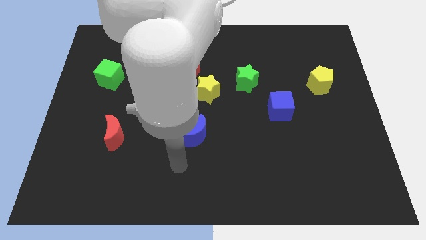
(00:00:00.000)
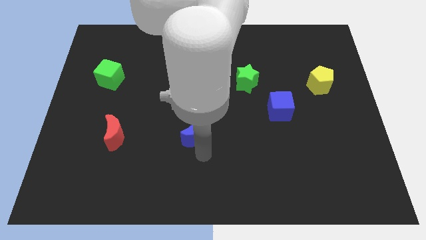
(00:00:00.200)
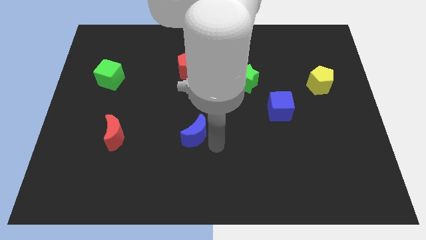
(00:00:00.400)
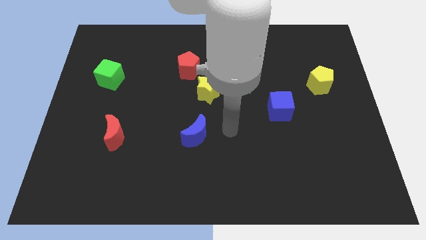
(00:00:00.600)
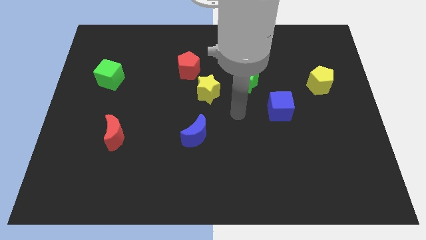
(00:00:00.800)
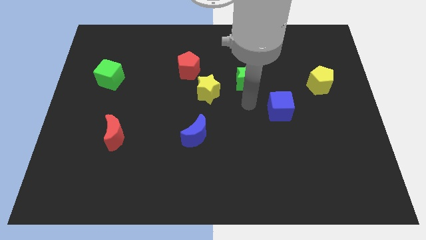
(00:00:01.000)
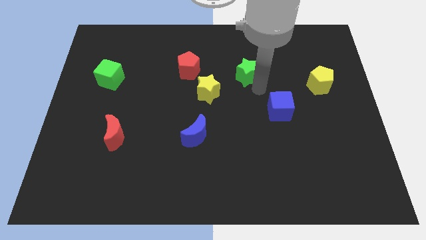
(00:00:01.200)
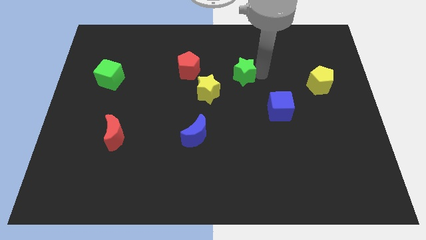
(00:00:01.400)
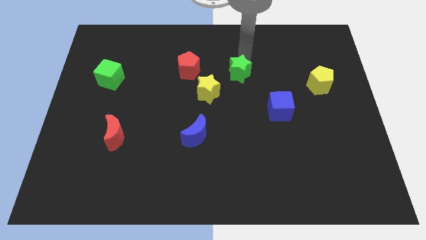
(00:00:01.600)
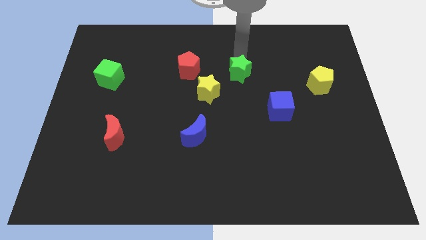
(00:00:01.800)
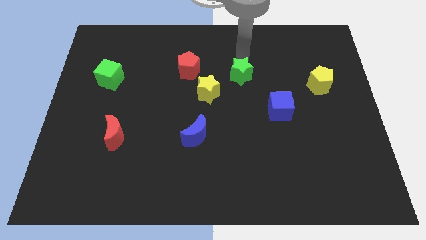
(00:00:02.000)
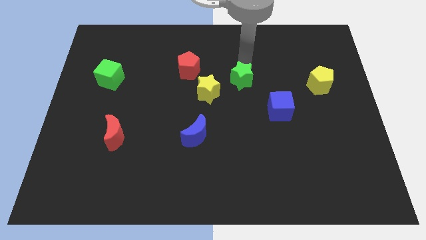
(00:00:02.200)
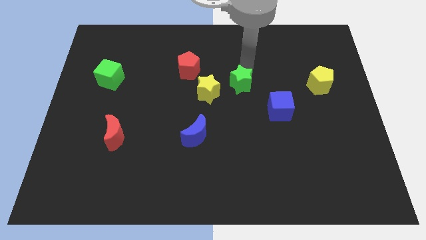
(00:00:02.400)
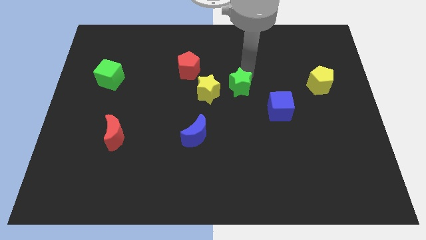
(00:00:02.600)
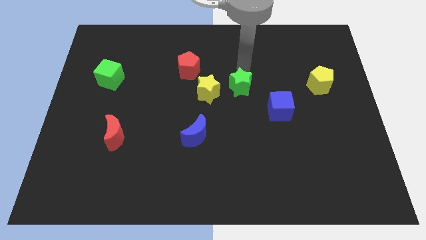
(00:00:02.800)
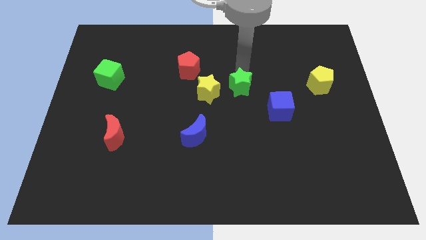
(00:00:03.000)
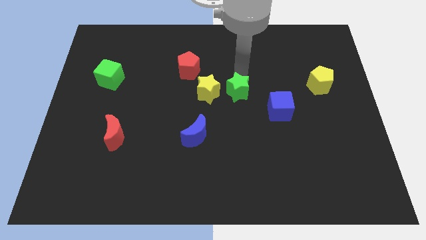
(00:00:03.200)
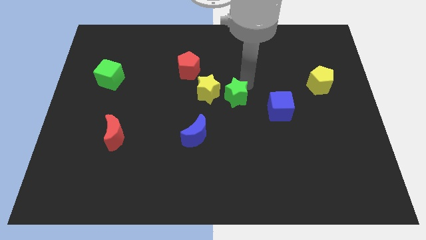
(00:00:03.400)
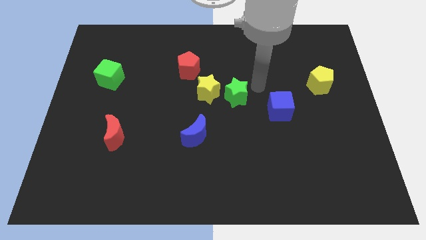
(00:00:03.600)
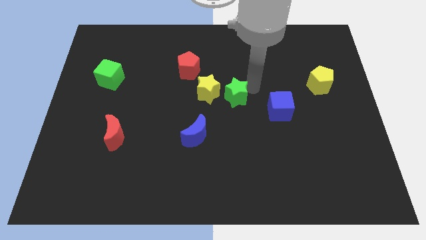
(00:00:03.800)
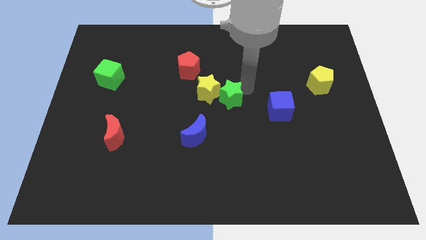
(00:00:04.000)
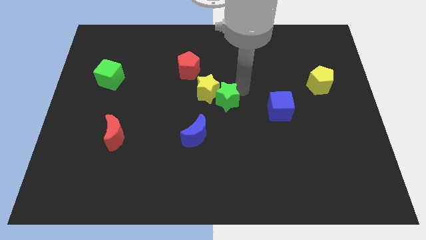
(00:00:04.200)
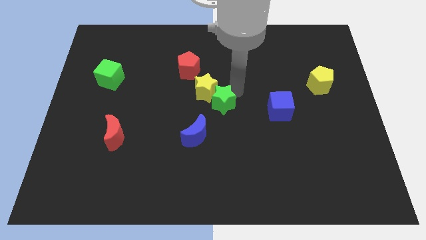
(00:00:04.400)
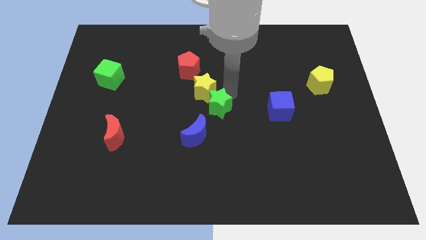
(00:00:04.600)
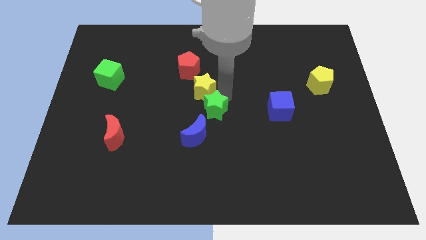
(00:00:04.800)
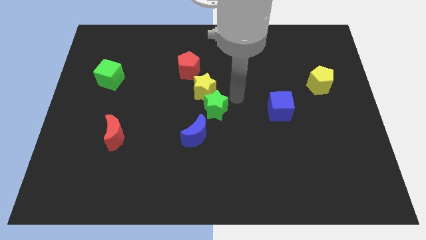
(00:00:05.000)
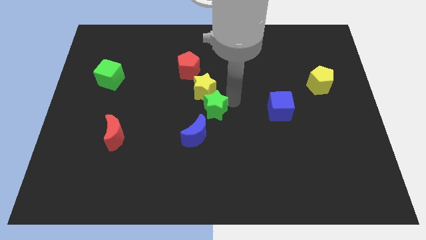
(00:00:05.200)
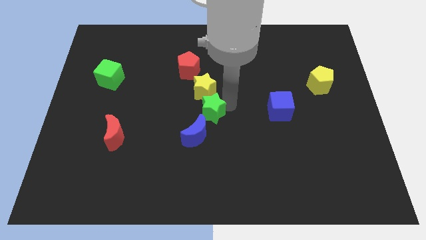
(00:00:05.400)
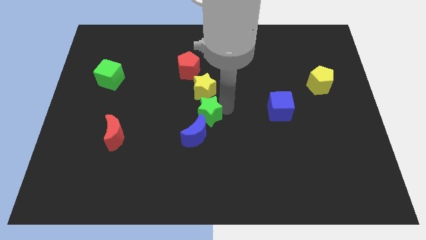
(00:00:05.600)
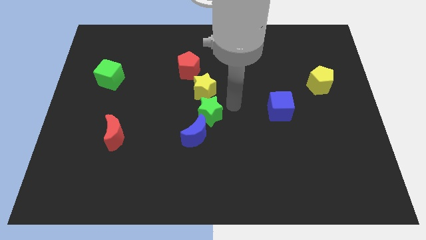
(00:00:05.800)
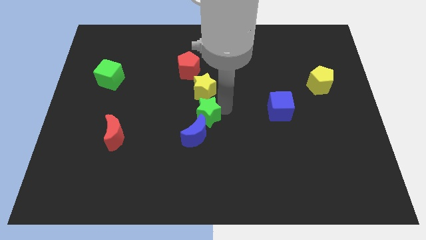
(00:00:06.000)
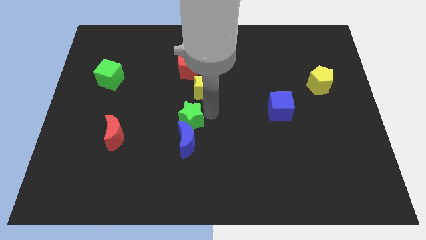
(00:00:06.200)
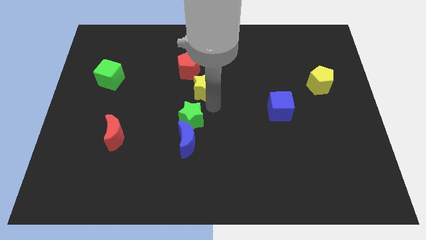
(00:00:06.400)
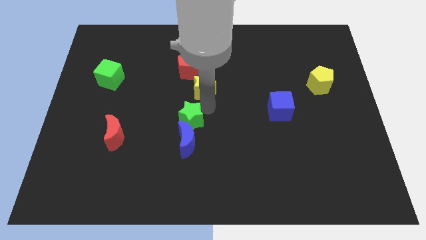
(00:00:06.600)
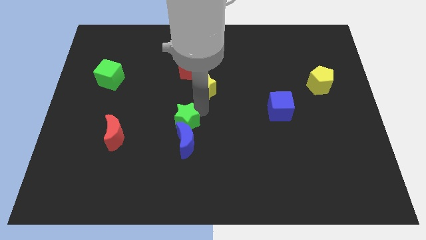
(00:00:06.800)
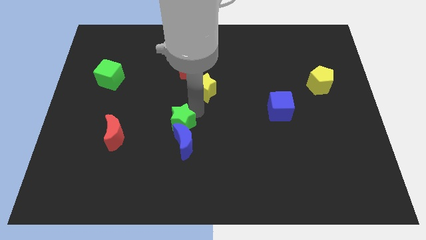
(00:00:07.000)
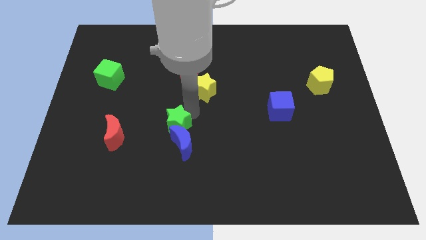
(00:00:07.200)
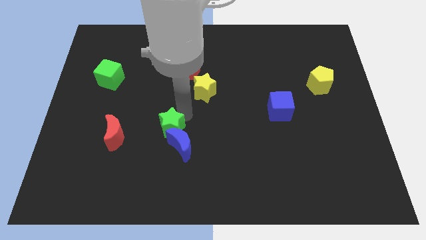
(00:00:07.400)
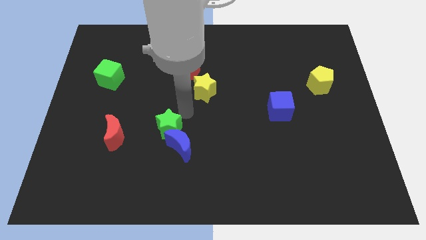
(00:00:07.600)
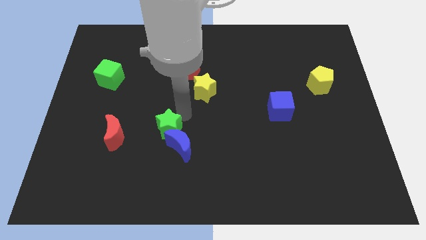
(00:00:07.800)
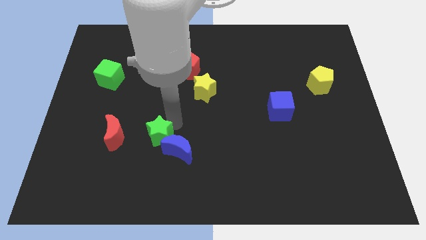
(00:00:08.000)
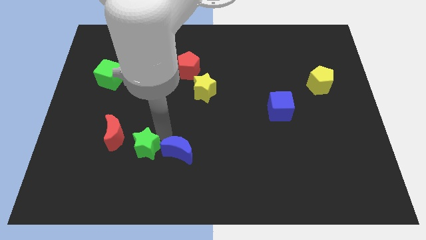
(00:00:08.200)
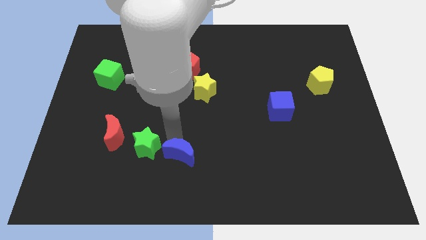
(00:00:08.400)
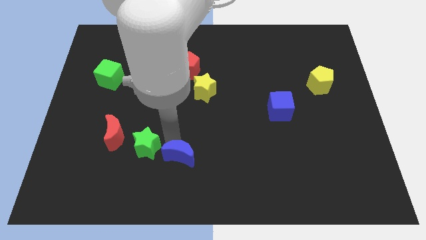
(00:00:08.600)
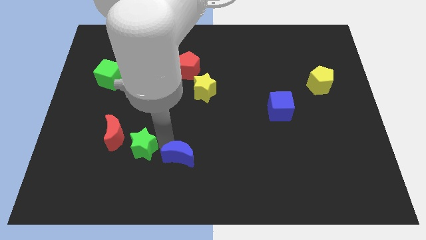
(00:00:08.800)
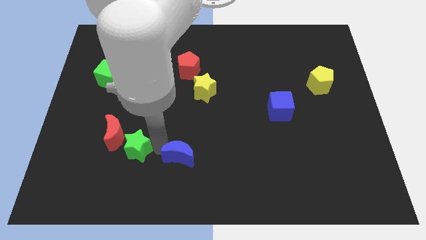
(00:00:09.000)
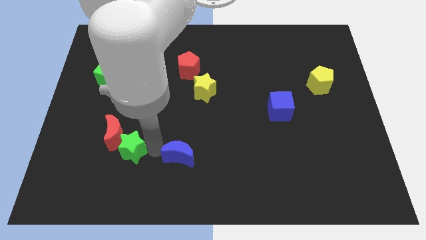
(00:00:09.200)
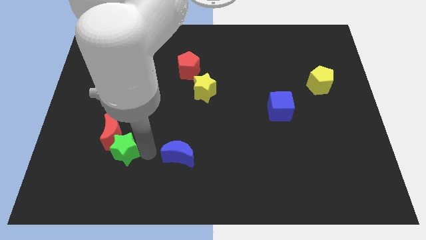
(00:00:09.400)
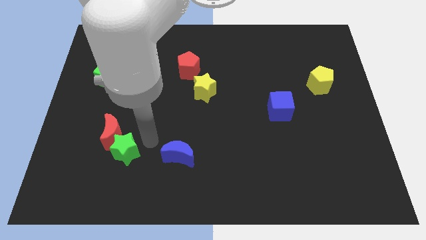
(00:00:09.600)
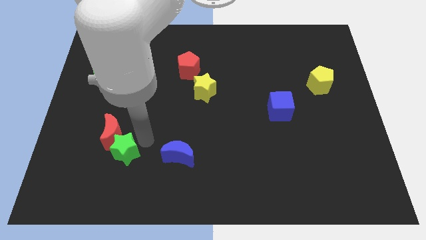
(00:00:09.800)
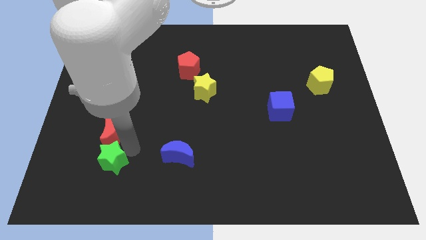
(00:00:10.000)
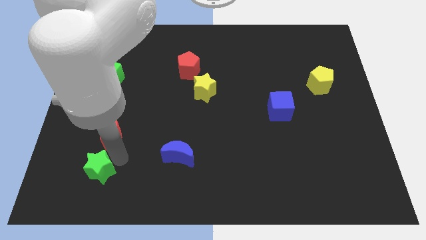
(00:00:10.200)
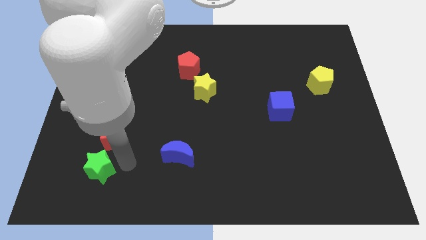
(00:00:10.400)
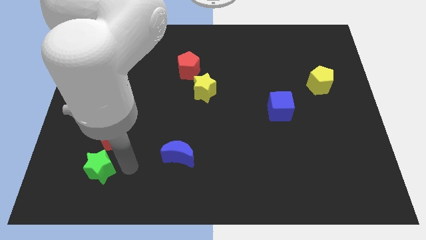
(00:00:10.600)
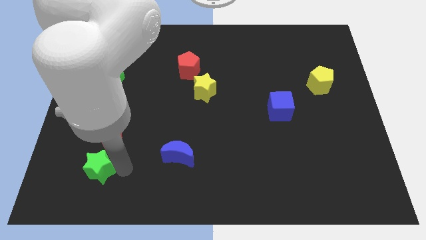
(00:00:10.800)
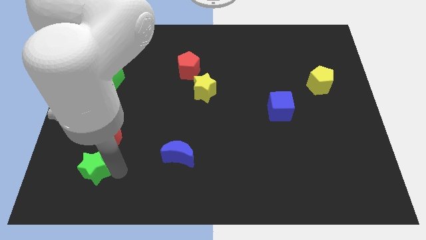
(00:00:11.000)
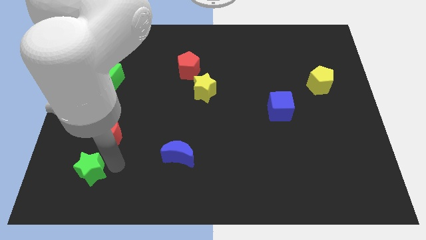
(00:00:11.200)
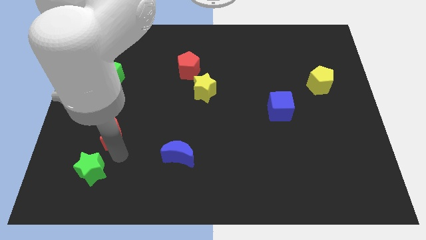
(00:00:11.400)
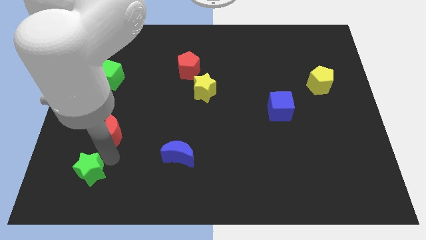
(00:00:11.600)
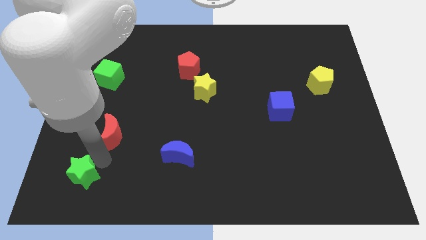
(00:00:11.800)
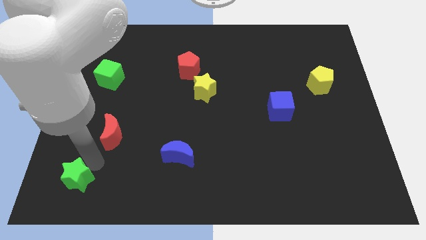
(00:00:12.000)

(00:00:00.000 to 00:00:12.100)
push the green star to the lower left corner

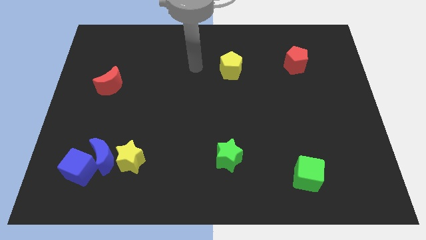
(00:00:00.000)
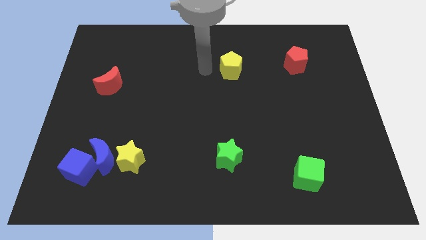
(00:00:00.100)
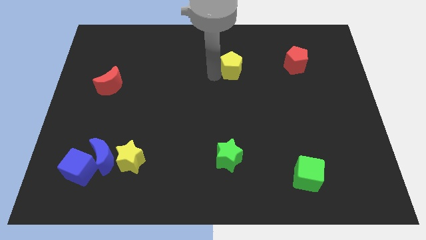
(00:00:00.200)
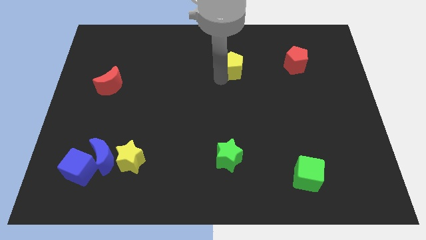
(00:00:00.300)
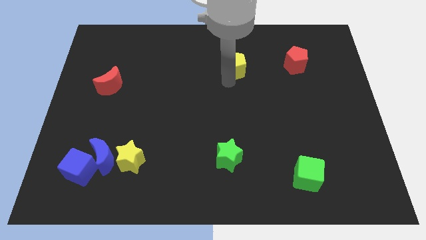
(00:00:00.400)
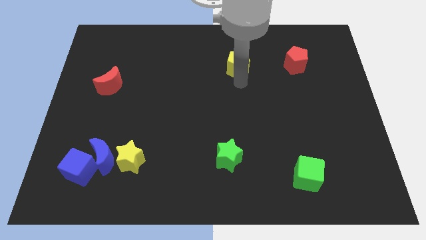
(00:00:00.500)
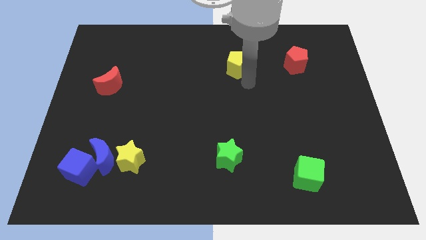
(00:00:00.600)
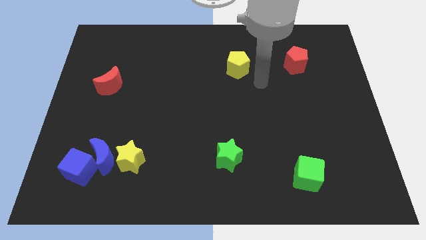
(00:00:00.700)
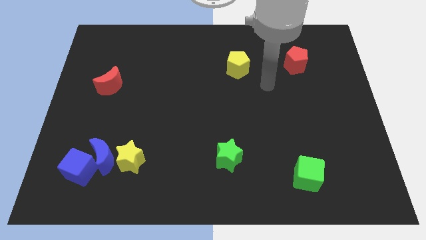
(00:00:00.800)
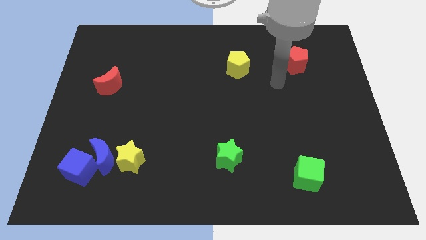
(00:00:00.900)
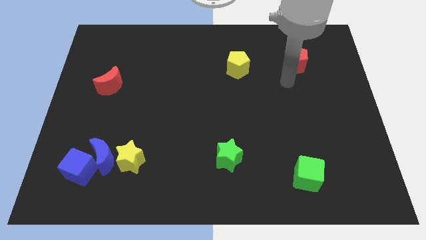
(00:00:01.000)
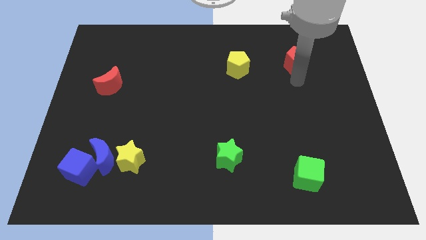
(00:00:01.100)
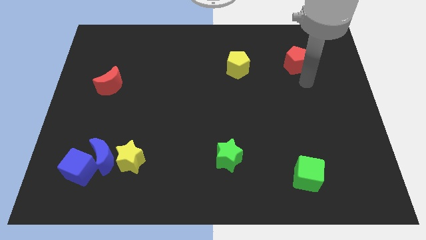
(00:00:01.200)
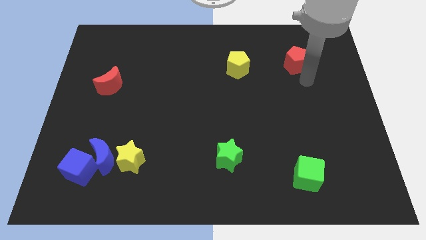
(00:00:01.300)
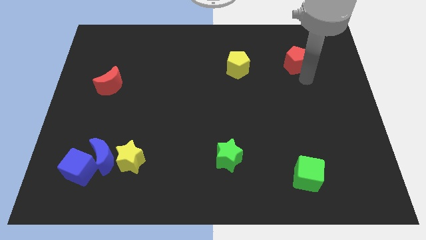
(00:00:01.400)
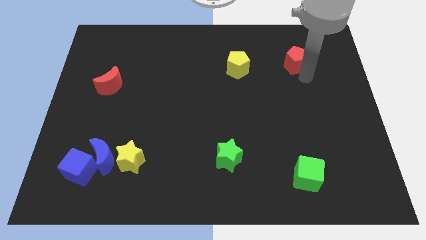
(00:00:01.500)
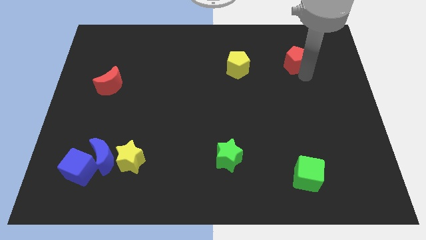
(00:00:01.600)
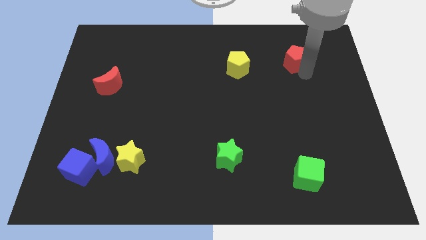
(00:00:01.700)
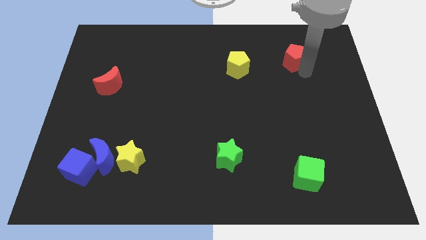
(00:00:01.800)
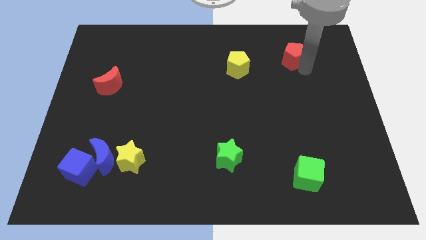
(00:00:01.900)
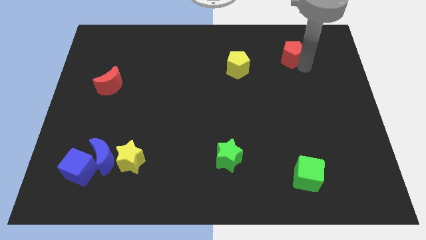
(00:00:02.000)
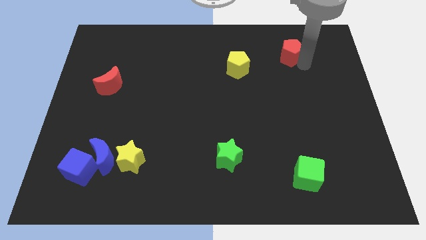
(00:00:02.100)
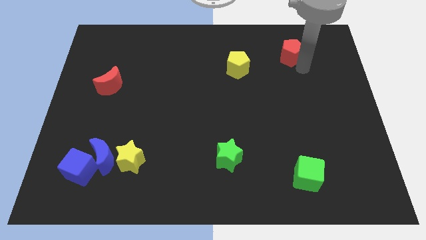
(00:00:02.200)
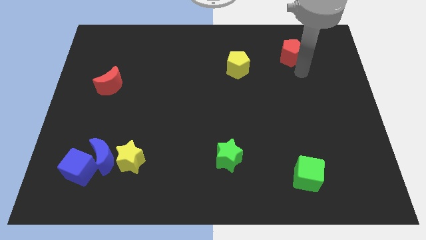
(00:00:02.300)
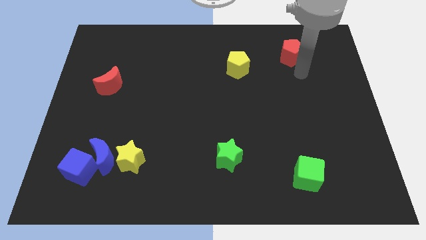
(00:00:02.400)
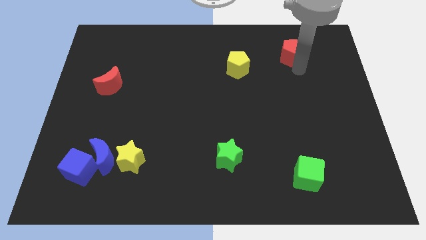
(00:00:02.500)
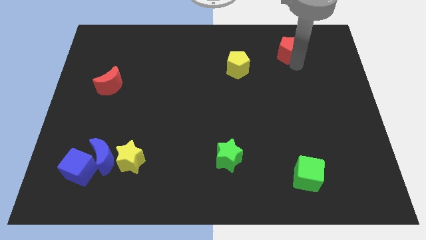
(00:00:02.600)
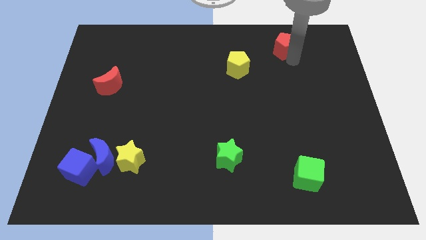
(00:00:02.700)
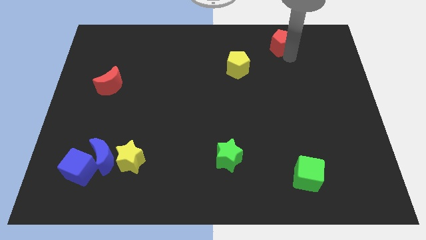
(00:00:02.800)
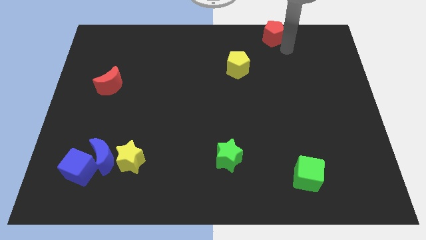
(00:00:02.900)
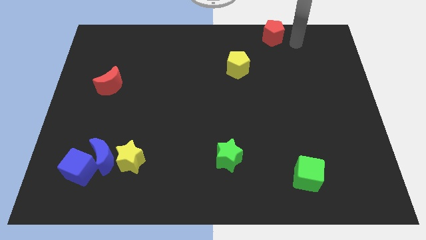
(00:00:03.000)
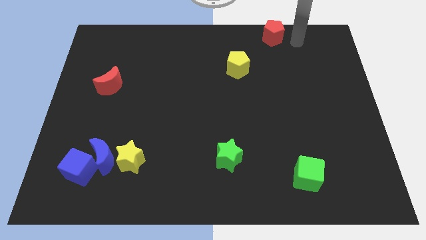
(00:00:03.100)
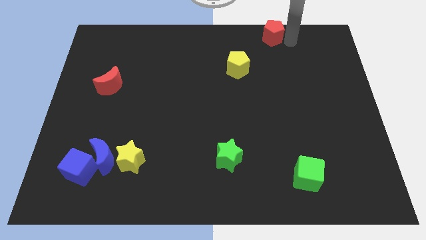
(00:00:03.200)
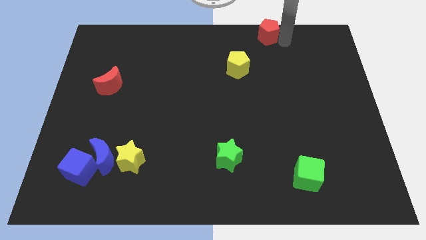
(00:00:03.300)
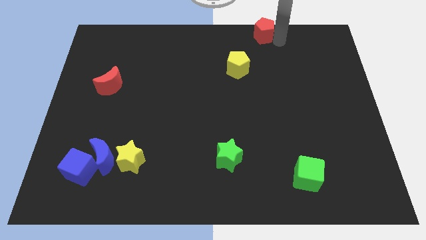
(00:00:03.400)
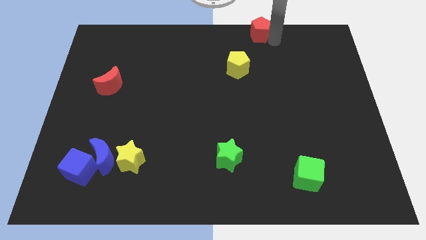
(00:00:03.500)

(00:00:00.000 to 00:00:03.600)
move the red pentagon to the towards your base
